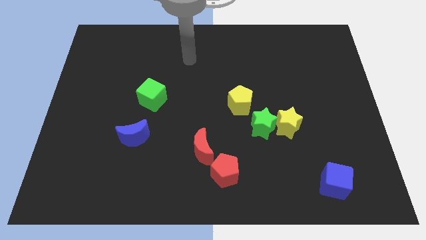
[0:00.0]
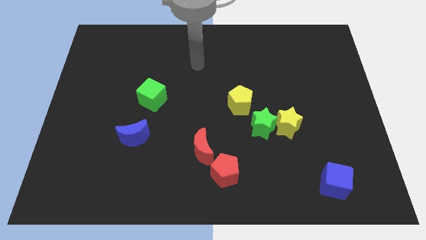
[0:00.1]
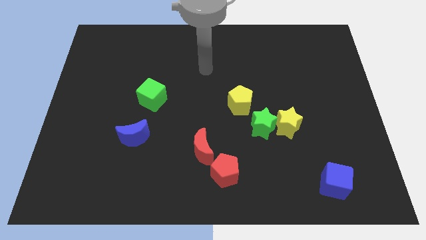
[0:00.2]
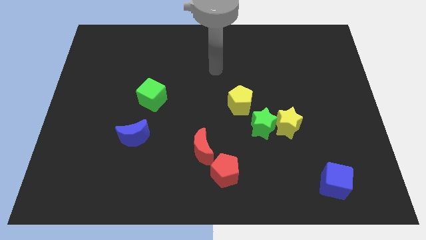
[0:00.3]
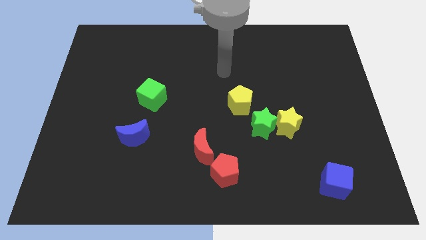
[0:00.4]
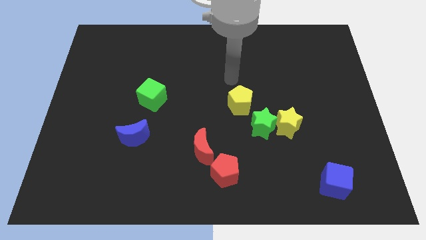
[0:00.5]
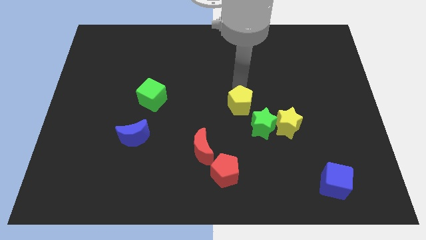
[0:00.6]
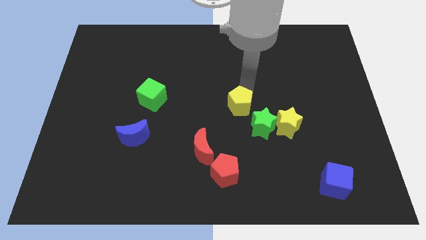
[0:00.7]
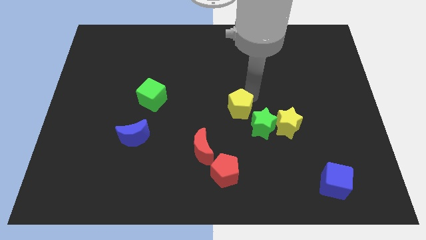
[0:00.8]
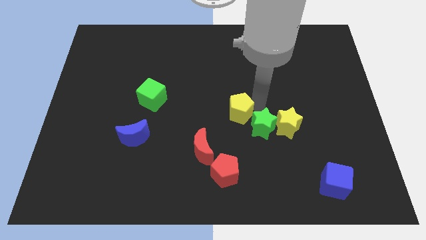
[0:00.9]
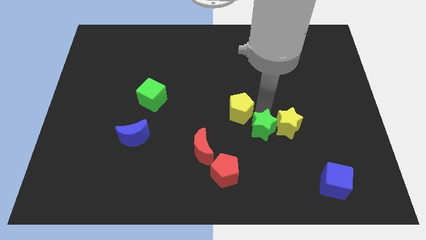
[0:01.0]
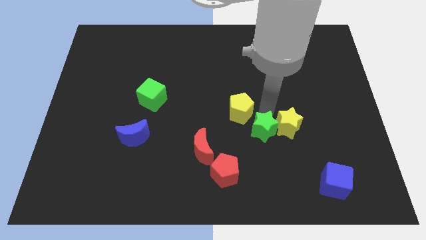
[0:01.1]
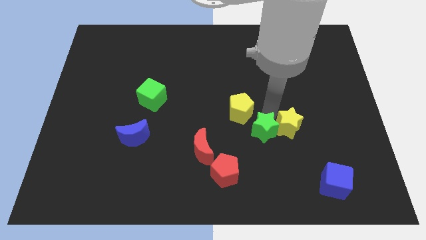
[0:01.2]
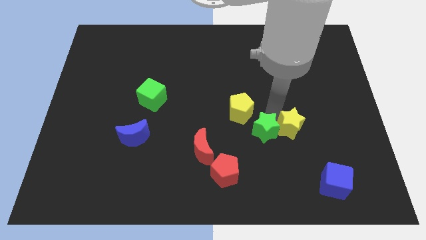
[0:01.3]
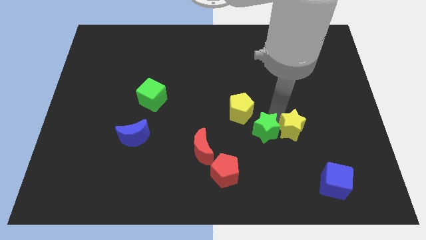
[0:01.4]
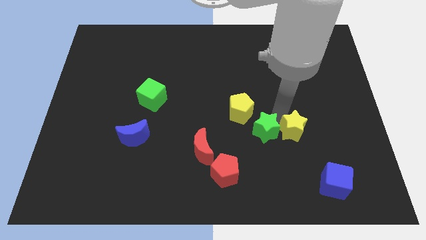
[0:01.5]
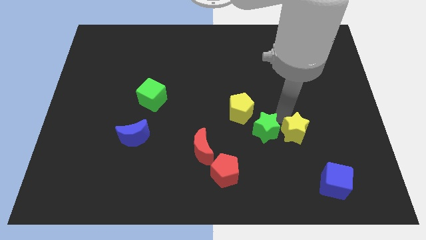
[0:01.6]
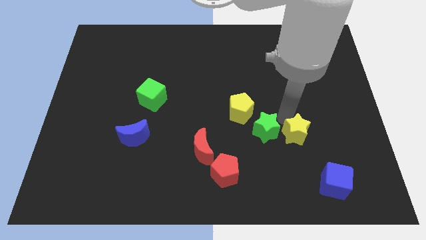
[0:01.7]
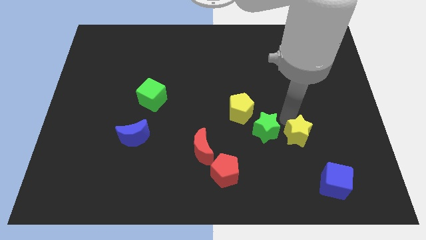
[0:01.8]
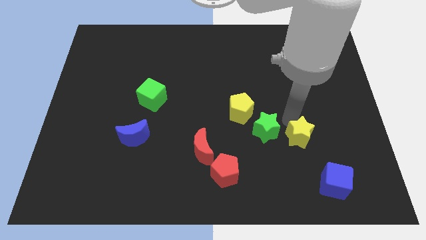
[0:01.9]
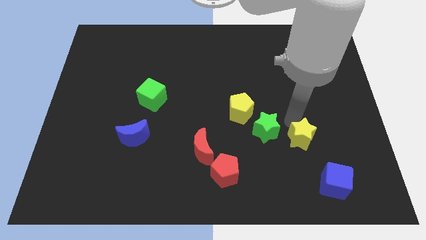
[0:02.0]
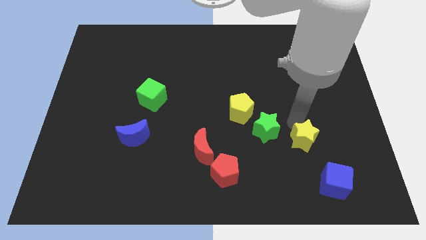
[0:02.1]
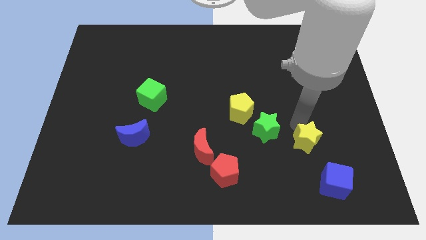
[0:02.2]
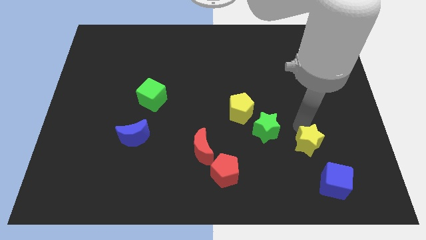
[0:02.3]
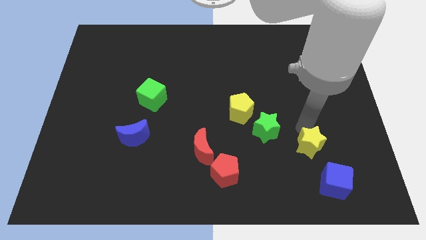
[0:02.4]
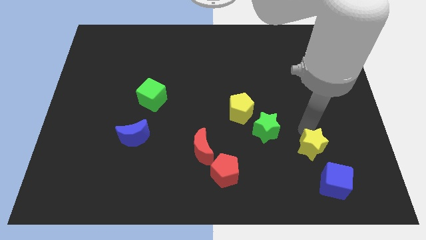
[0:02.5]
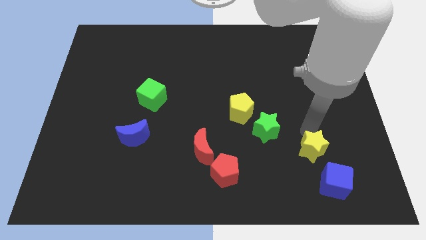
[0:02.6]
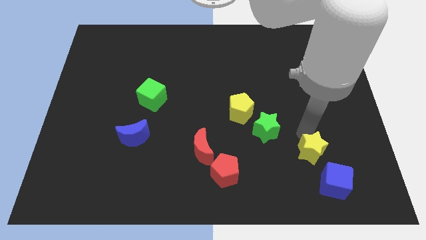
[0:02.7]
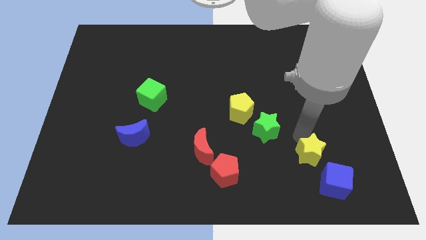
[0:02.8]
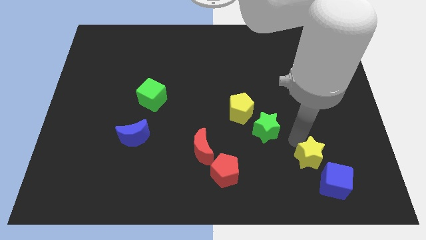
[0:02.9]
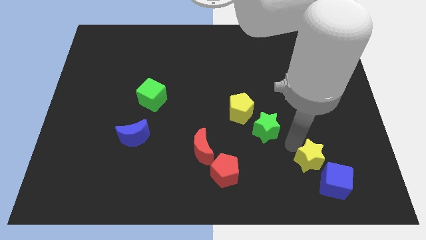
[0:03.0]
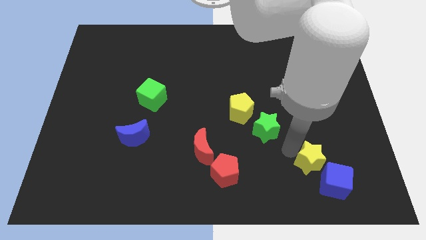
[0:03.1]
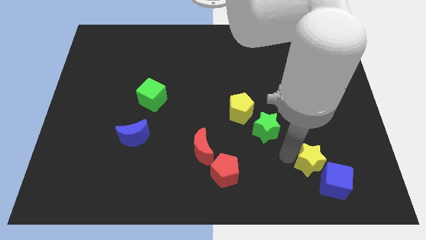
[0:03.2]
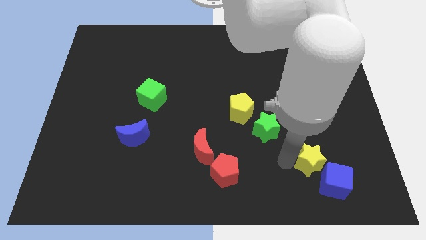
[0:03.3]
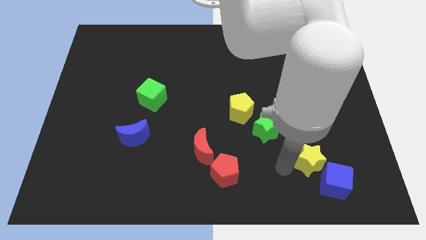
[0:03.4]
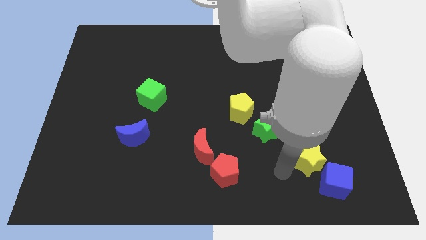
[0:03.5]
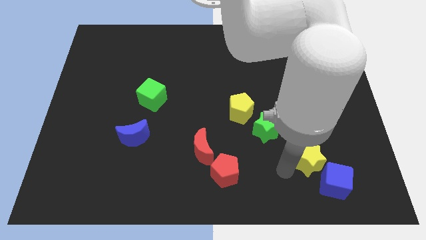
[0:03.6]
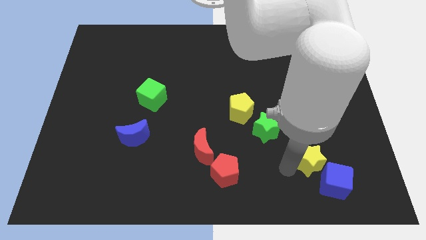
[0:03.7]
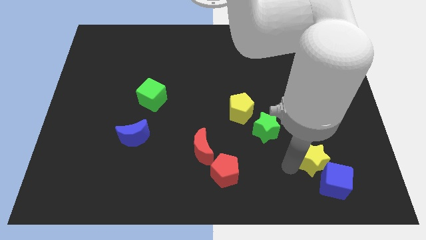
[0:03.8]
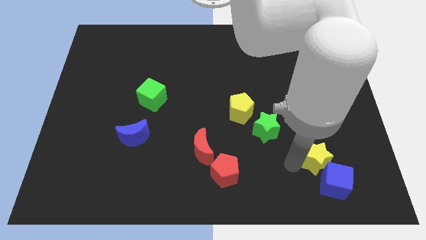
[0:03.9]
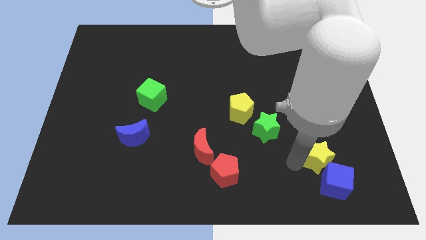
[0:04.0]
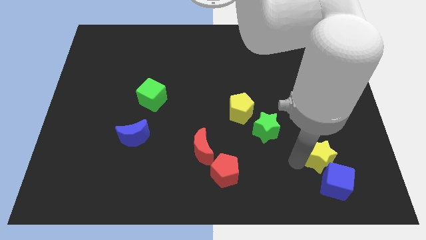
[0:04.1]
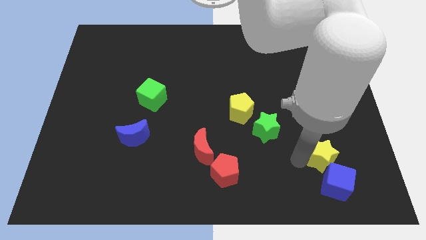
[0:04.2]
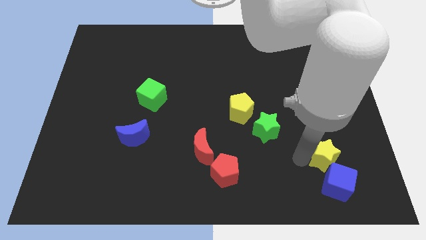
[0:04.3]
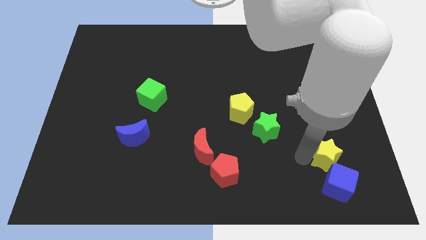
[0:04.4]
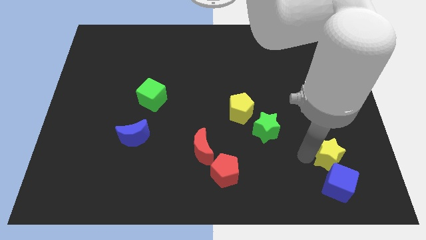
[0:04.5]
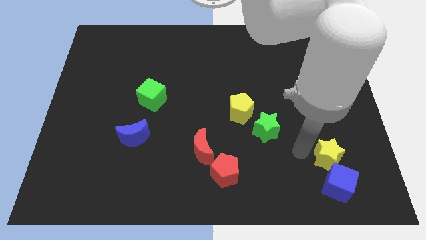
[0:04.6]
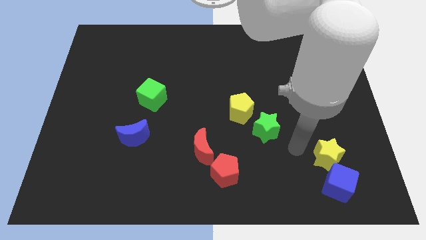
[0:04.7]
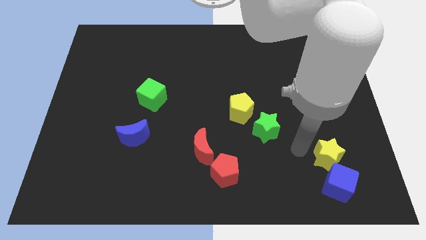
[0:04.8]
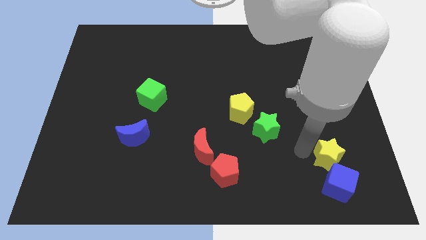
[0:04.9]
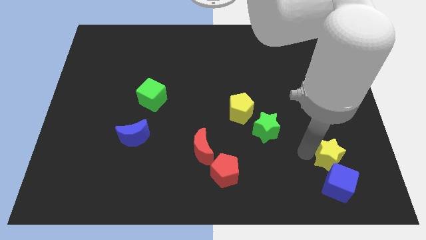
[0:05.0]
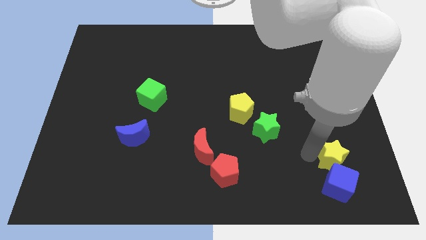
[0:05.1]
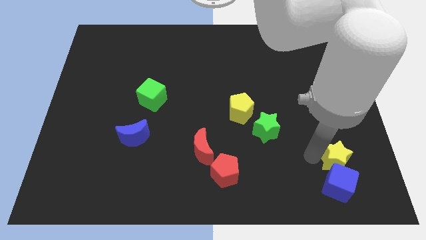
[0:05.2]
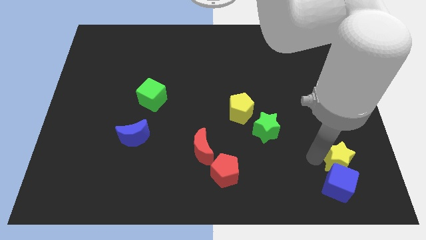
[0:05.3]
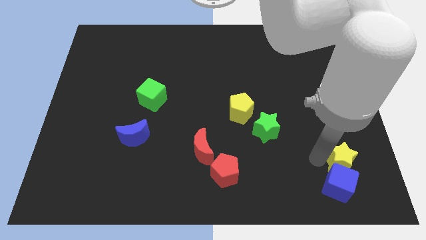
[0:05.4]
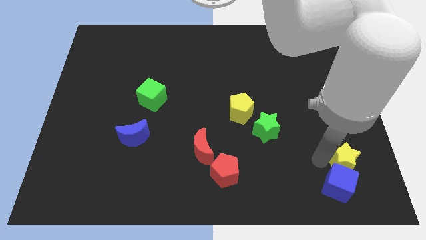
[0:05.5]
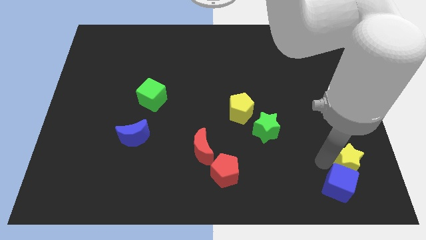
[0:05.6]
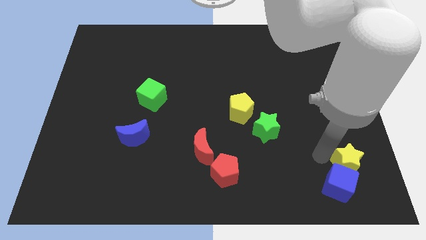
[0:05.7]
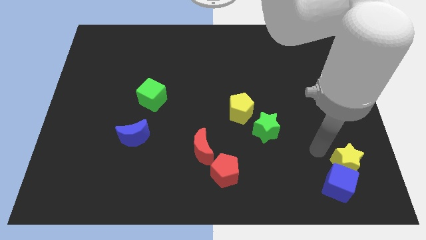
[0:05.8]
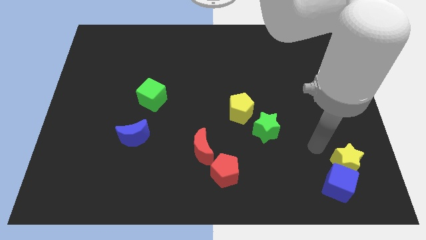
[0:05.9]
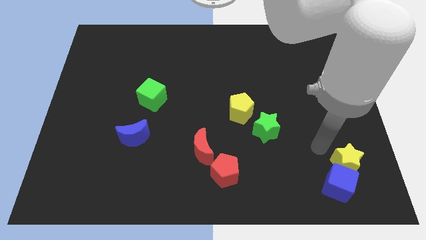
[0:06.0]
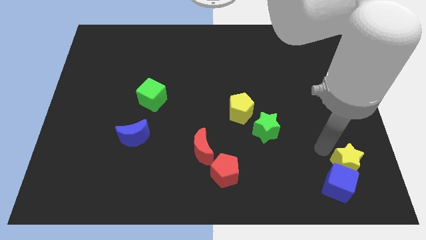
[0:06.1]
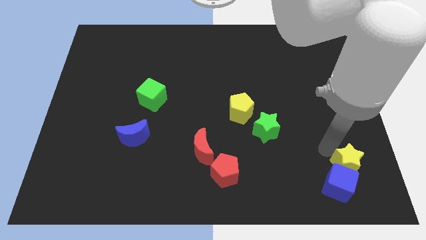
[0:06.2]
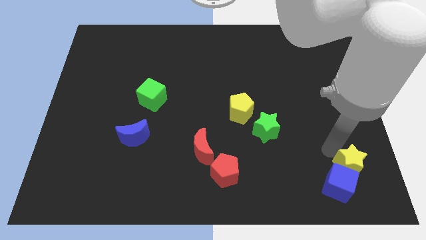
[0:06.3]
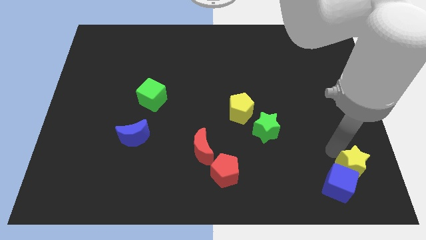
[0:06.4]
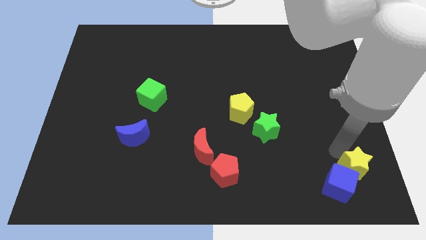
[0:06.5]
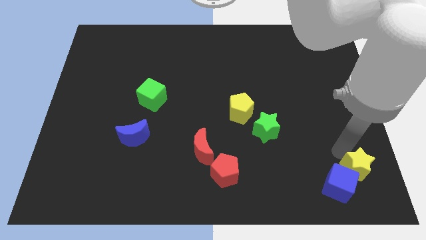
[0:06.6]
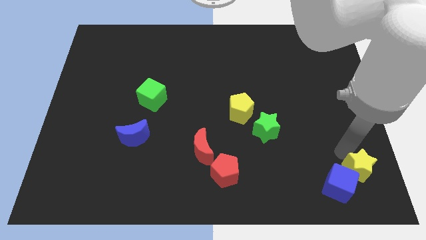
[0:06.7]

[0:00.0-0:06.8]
put the yellow star to the bottom right
